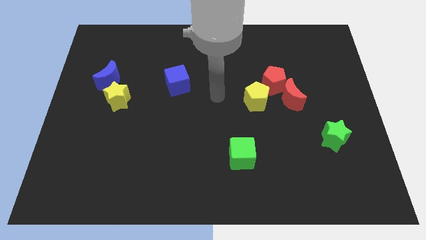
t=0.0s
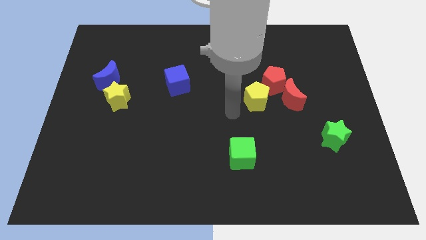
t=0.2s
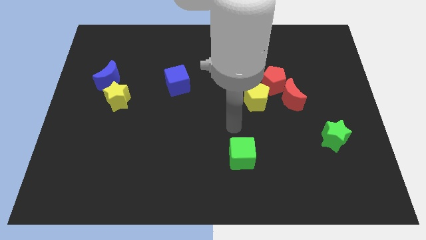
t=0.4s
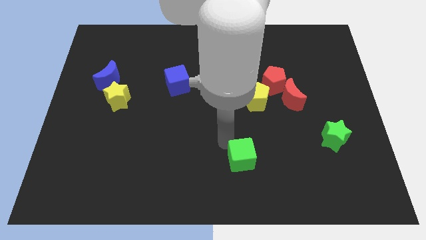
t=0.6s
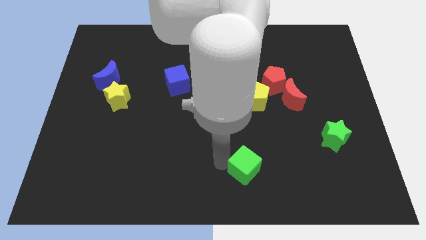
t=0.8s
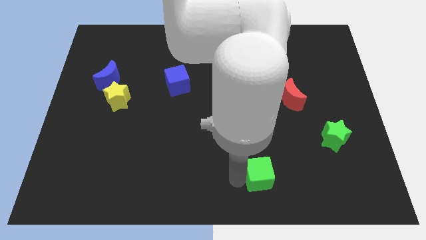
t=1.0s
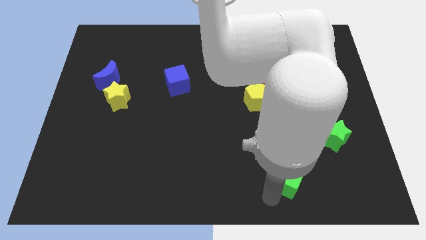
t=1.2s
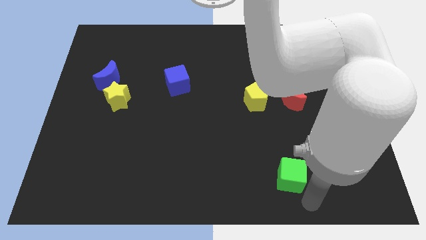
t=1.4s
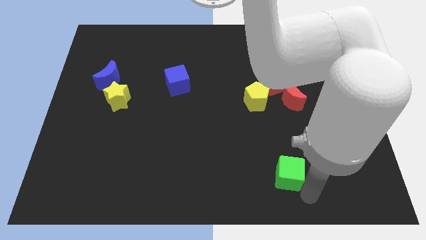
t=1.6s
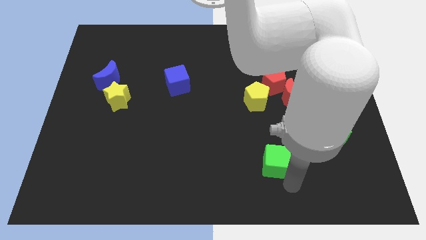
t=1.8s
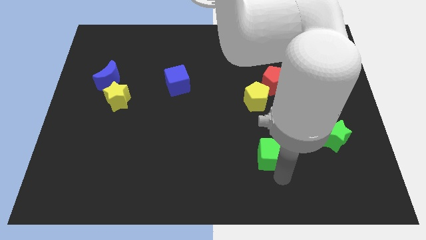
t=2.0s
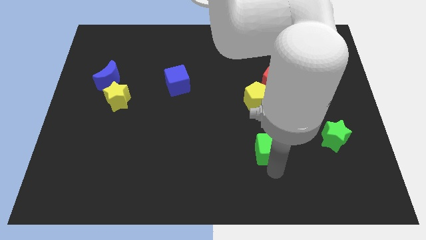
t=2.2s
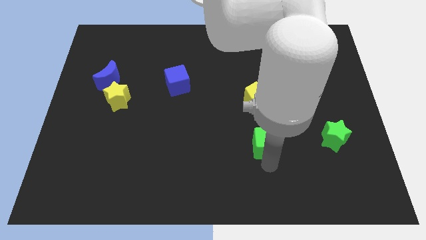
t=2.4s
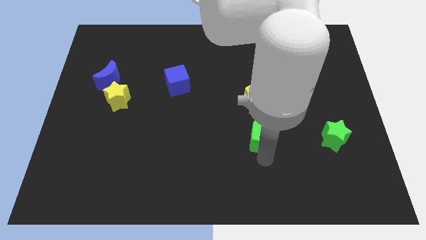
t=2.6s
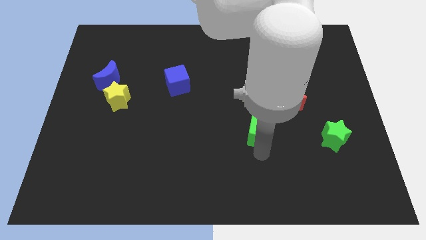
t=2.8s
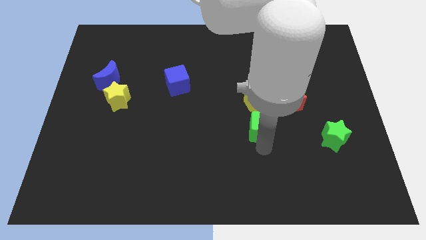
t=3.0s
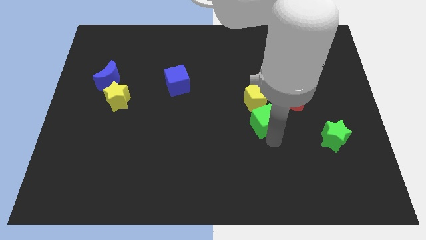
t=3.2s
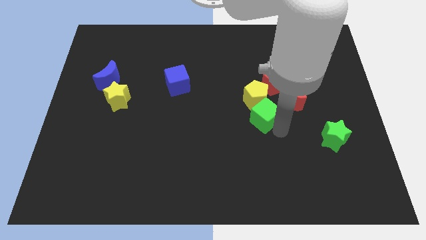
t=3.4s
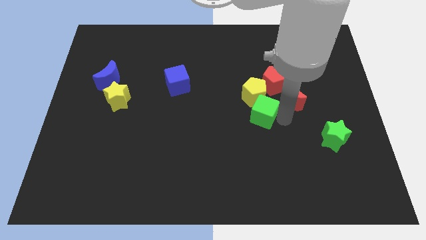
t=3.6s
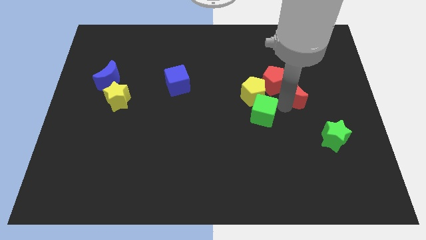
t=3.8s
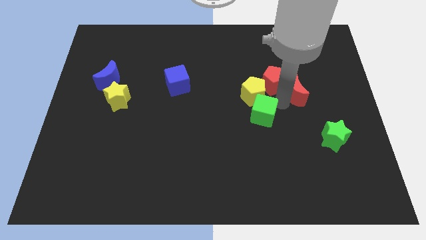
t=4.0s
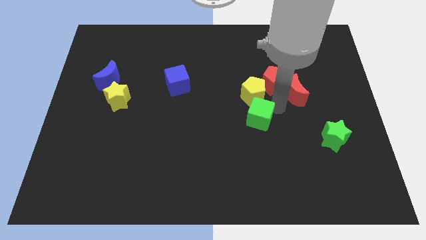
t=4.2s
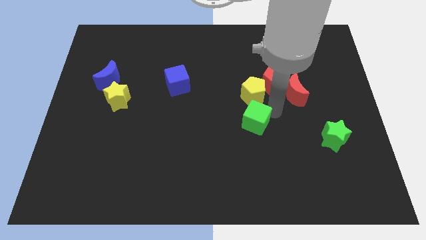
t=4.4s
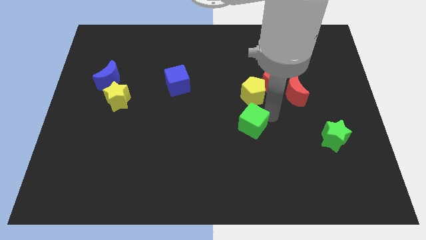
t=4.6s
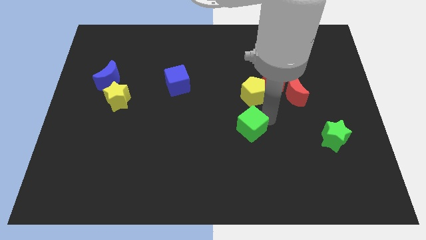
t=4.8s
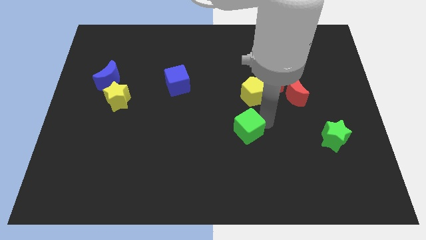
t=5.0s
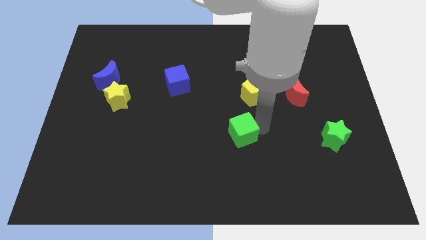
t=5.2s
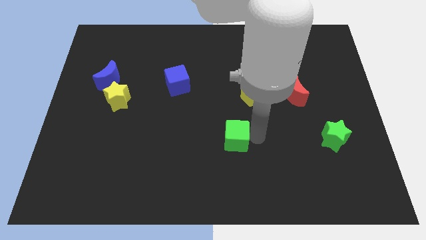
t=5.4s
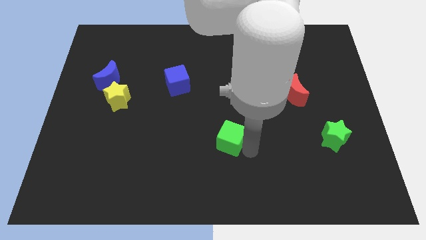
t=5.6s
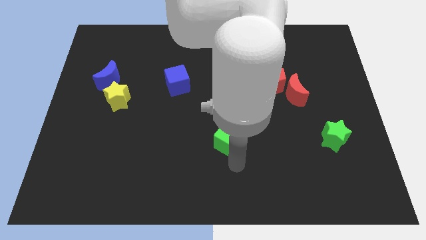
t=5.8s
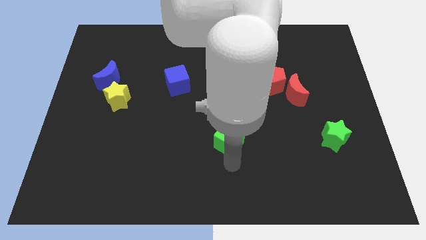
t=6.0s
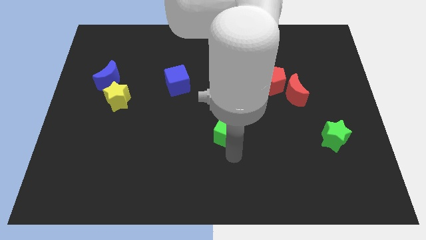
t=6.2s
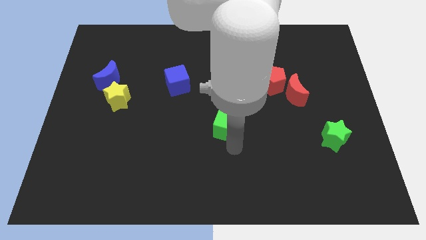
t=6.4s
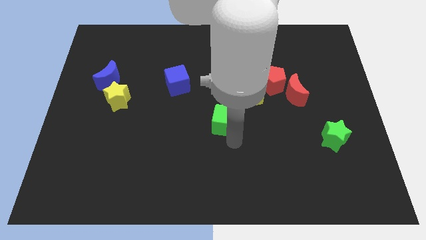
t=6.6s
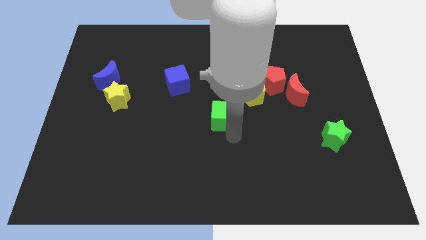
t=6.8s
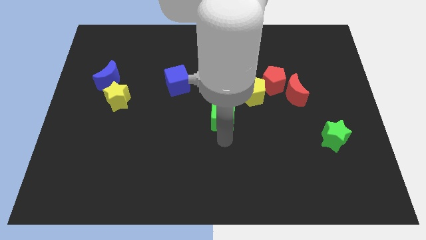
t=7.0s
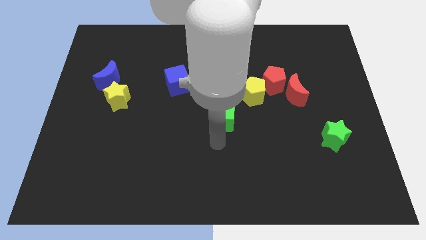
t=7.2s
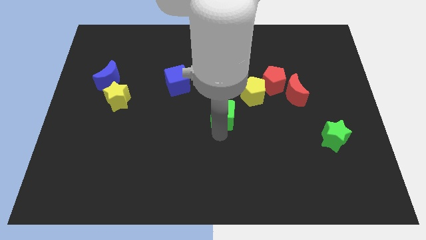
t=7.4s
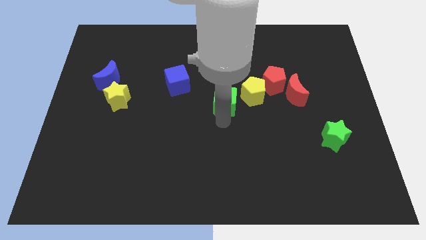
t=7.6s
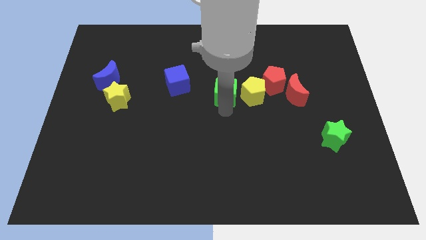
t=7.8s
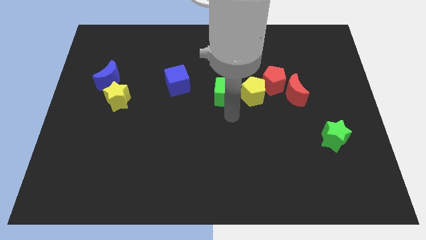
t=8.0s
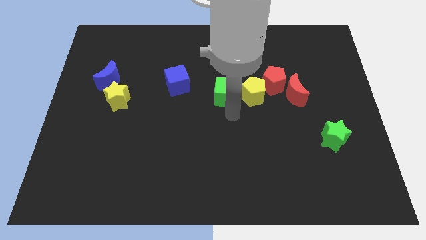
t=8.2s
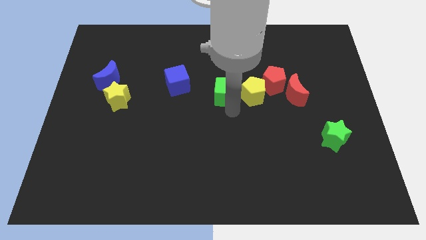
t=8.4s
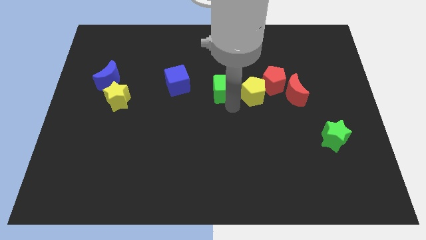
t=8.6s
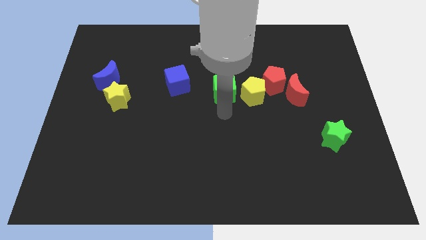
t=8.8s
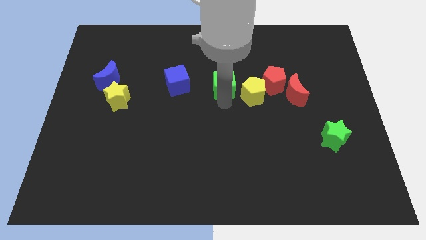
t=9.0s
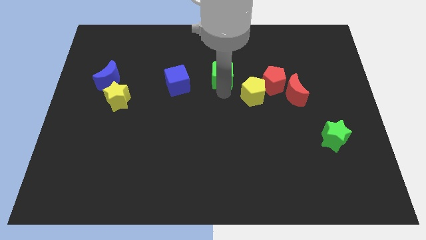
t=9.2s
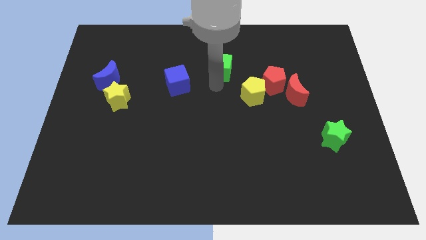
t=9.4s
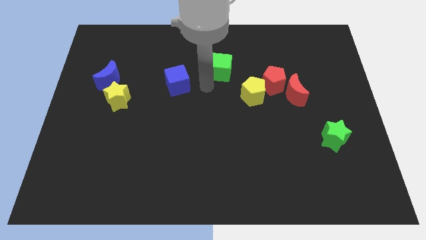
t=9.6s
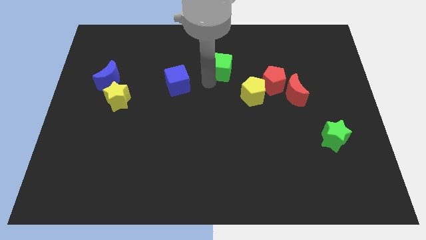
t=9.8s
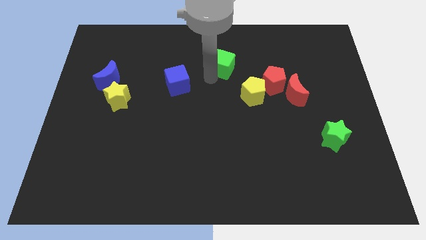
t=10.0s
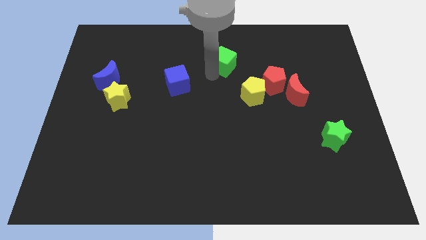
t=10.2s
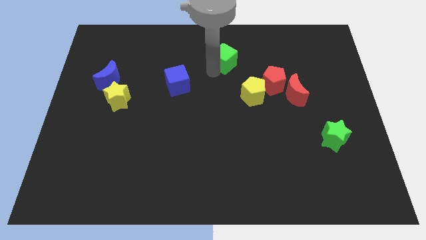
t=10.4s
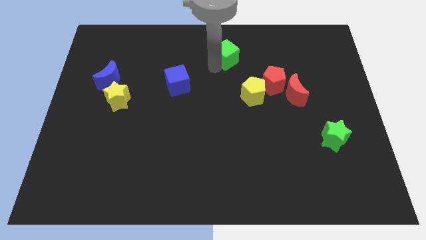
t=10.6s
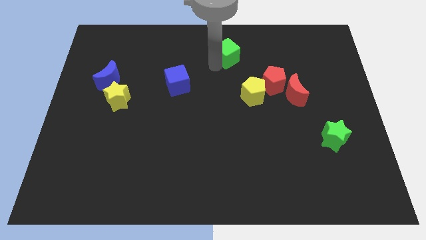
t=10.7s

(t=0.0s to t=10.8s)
slide the green cube to the top side
